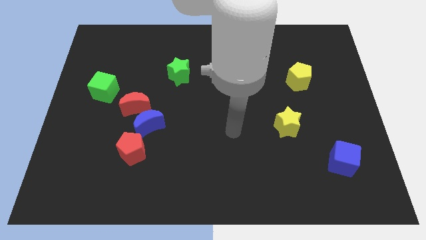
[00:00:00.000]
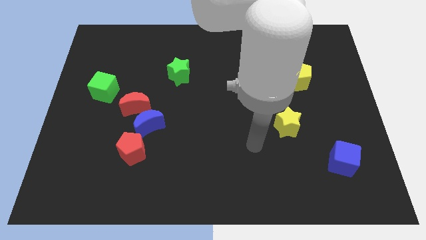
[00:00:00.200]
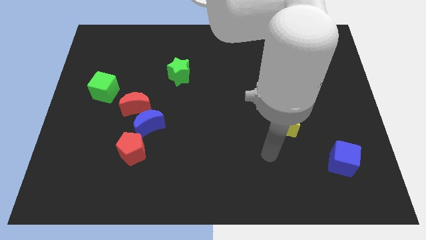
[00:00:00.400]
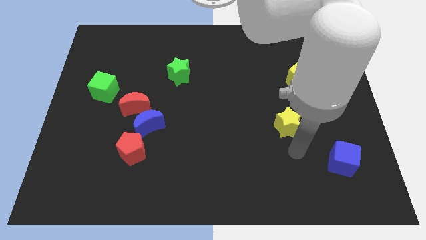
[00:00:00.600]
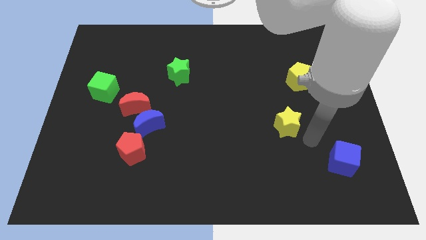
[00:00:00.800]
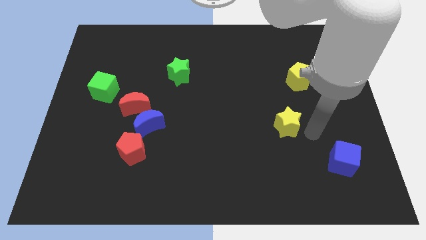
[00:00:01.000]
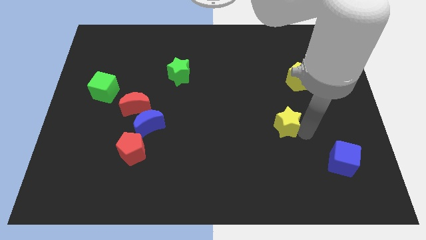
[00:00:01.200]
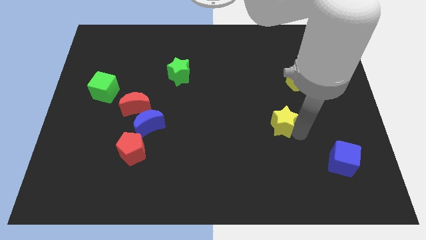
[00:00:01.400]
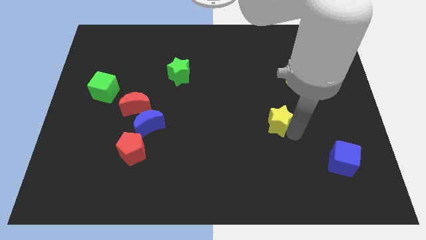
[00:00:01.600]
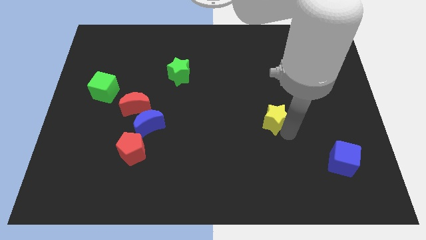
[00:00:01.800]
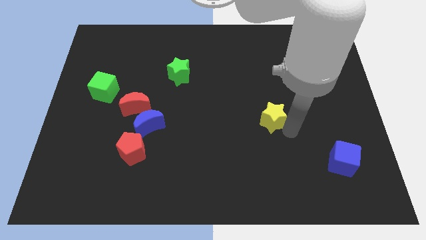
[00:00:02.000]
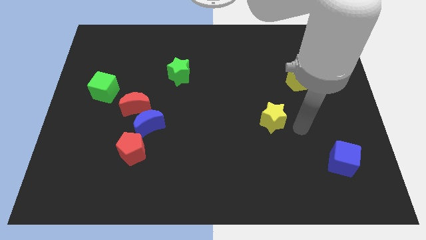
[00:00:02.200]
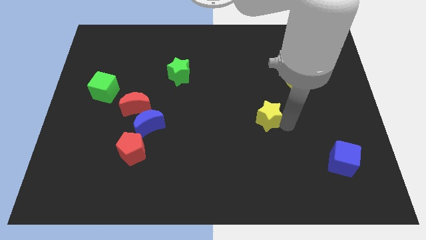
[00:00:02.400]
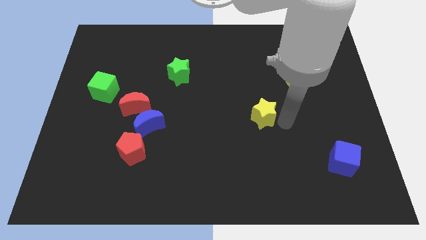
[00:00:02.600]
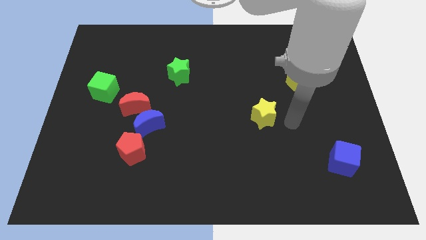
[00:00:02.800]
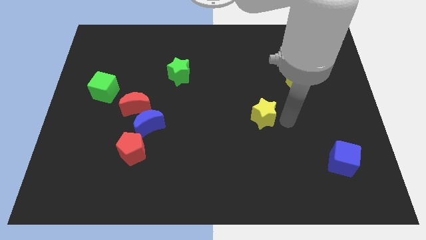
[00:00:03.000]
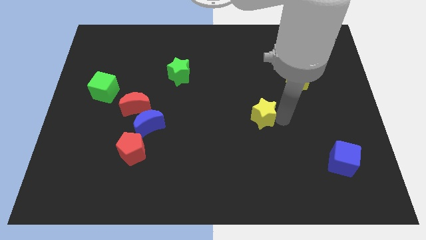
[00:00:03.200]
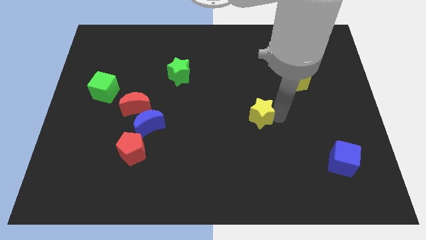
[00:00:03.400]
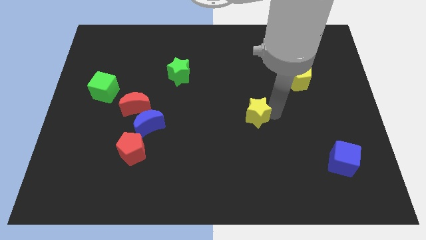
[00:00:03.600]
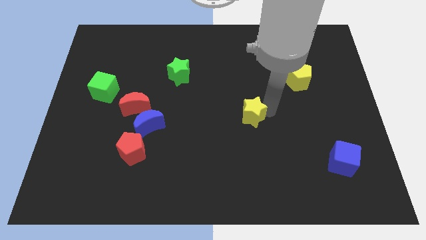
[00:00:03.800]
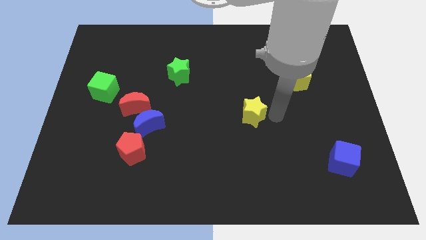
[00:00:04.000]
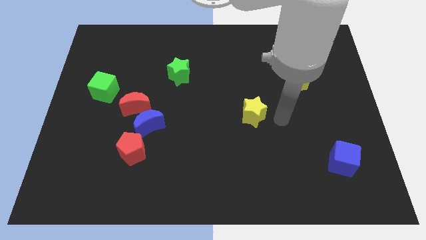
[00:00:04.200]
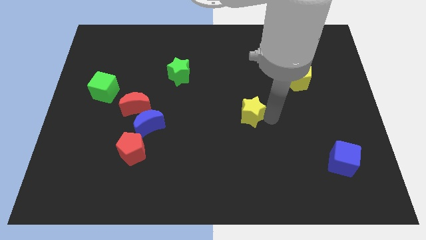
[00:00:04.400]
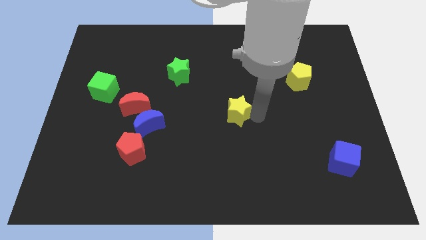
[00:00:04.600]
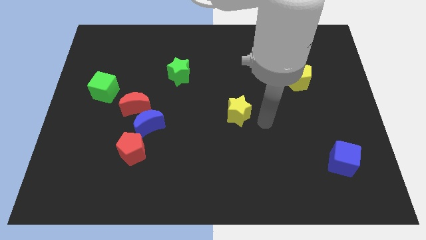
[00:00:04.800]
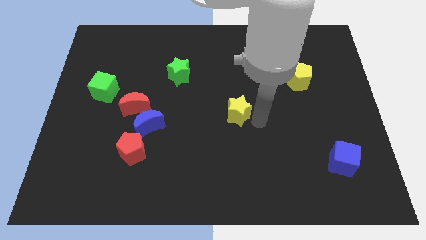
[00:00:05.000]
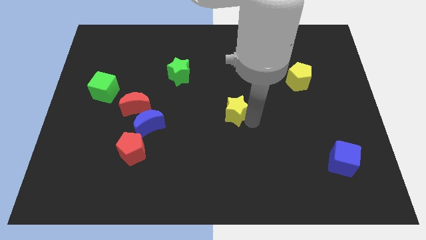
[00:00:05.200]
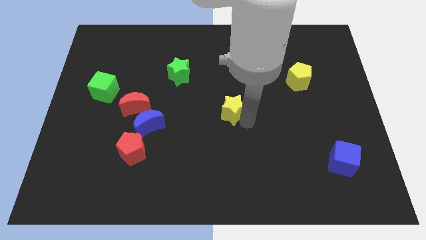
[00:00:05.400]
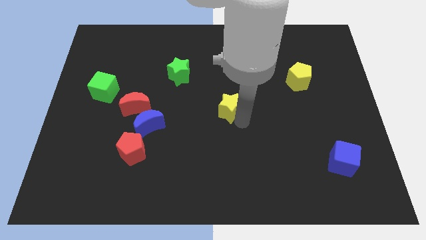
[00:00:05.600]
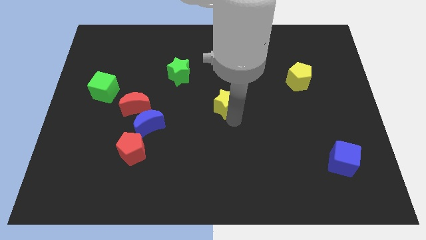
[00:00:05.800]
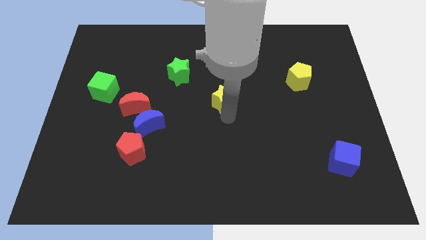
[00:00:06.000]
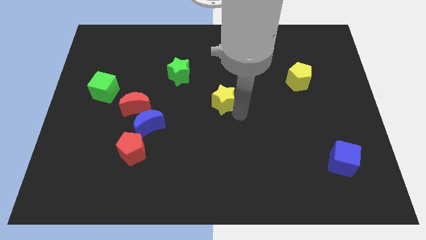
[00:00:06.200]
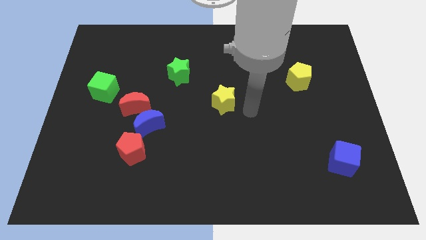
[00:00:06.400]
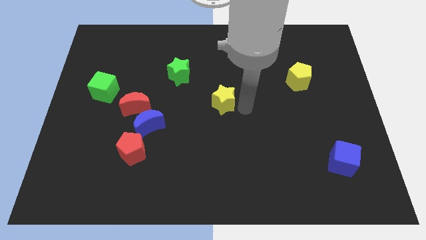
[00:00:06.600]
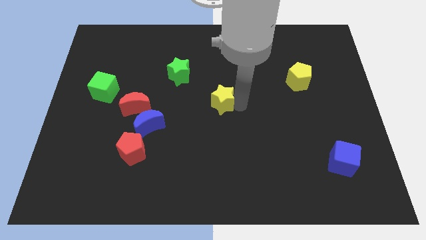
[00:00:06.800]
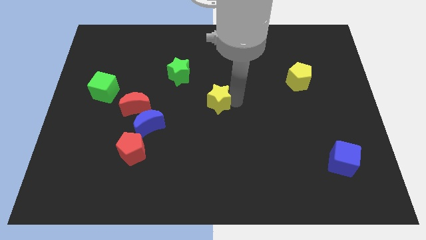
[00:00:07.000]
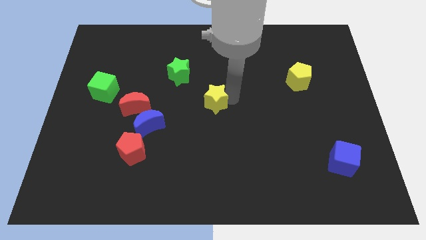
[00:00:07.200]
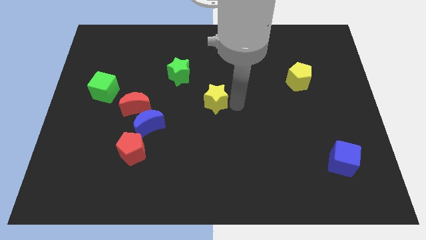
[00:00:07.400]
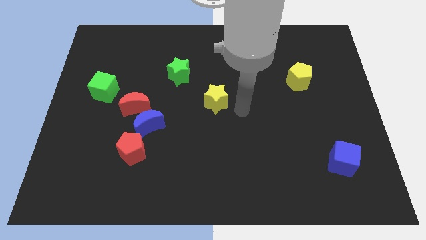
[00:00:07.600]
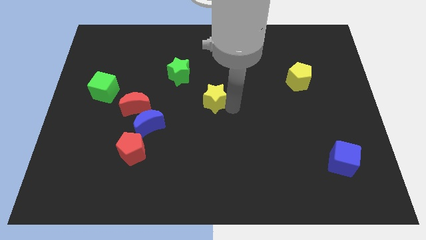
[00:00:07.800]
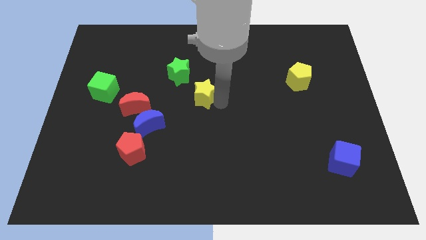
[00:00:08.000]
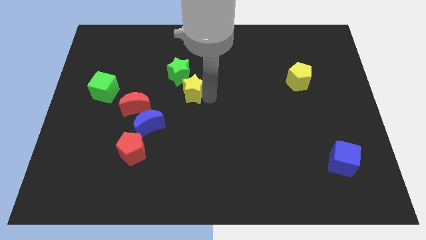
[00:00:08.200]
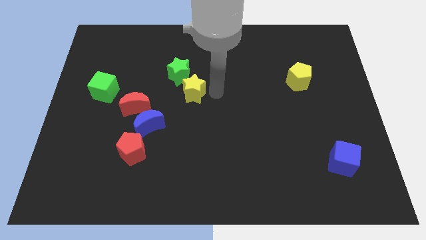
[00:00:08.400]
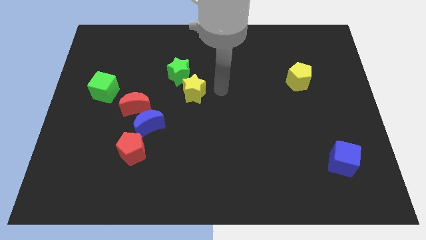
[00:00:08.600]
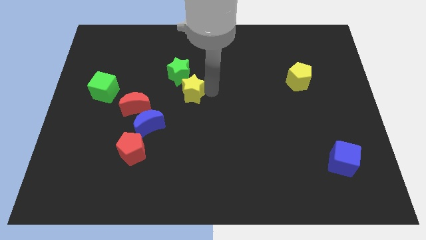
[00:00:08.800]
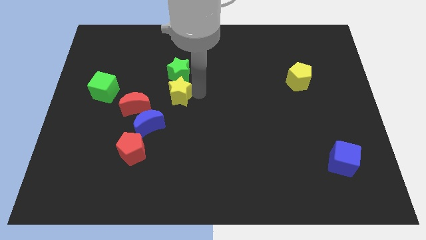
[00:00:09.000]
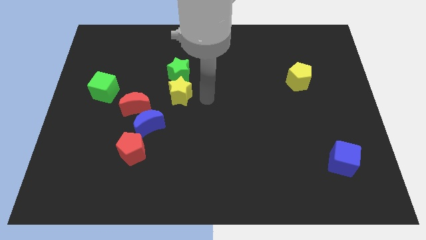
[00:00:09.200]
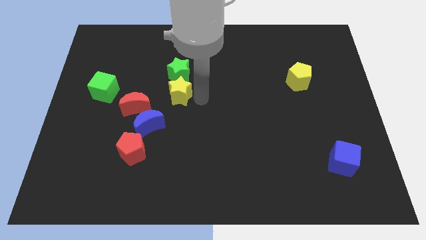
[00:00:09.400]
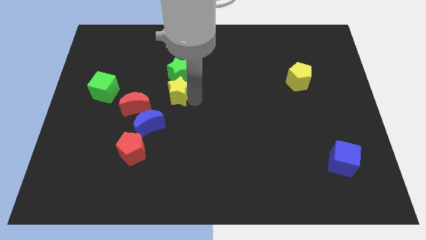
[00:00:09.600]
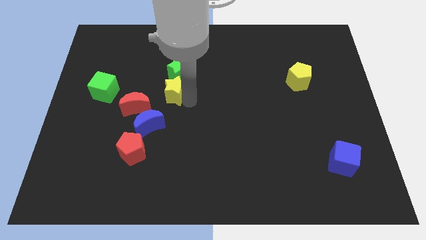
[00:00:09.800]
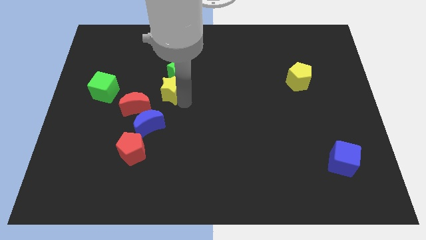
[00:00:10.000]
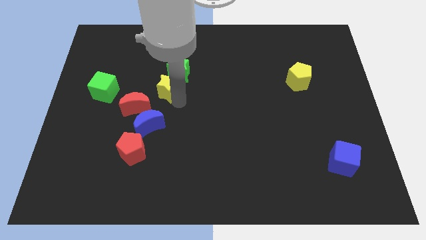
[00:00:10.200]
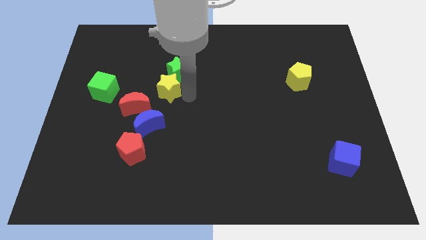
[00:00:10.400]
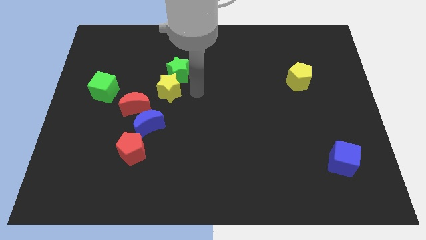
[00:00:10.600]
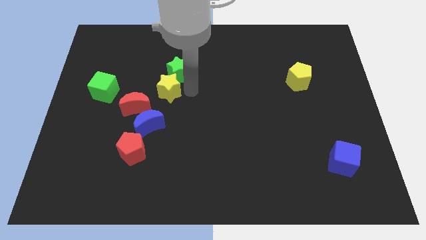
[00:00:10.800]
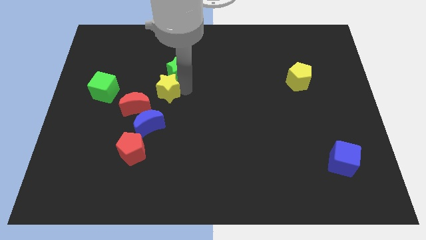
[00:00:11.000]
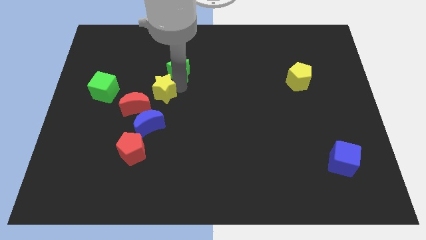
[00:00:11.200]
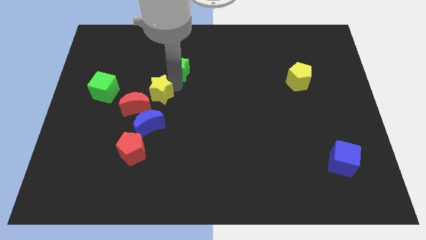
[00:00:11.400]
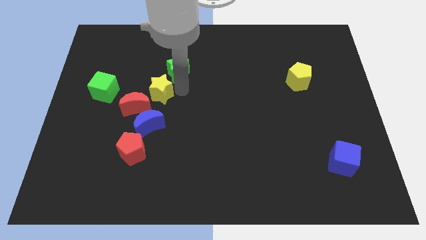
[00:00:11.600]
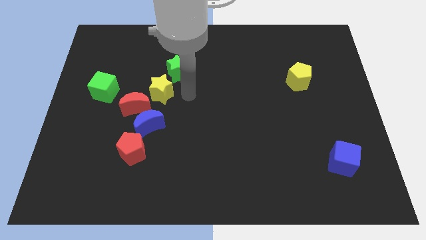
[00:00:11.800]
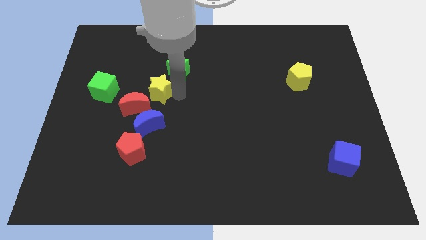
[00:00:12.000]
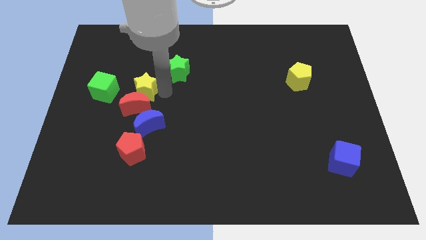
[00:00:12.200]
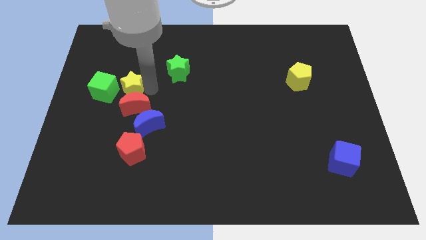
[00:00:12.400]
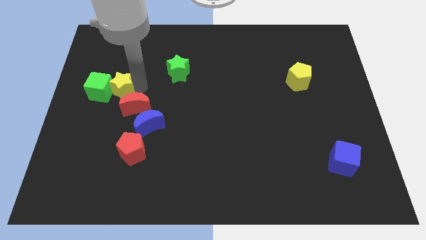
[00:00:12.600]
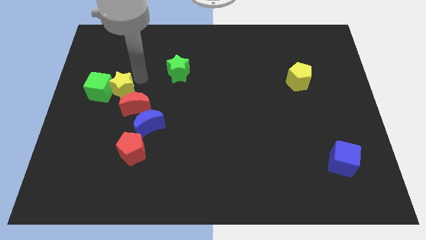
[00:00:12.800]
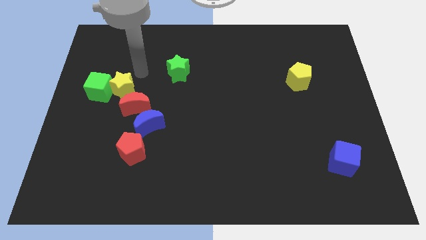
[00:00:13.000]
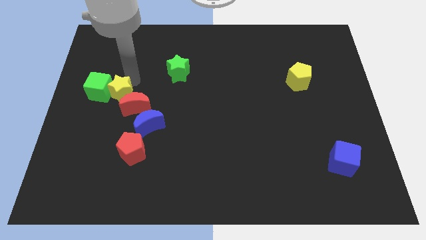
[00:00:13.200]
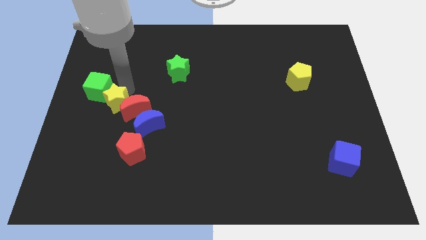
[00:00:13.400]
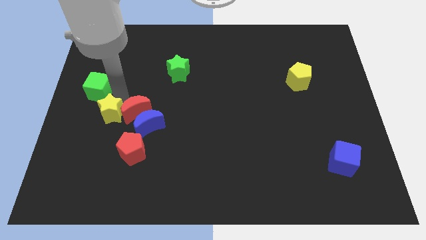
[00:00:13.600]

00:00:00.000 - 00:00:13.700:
slide the yellow star to the left side of the blue moon

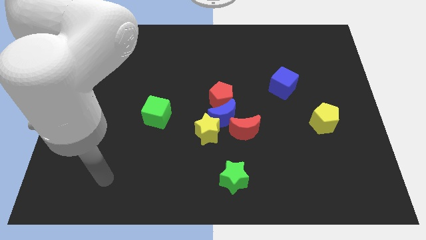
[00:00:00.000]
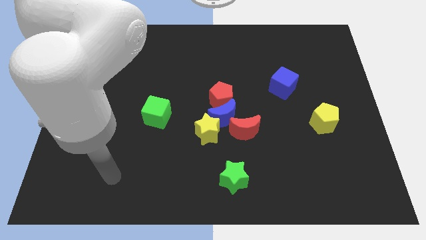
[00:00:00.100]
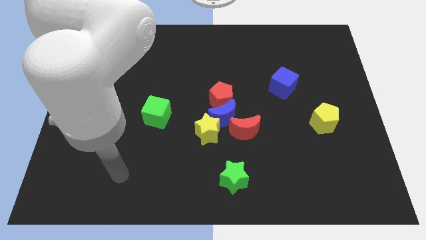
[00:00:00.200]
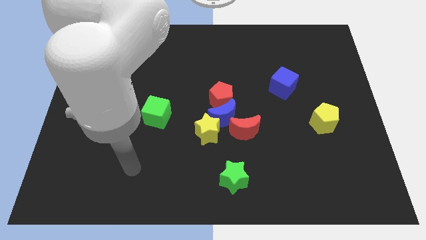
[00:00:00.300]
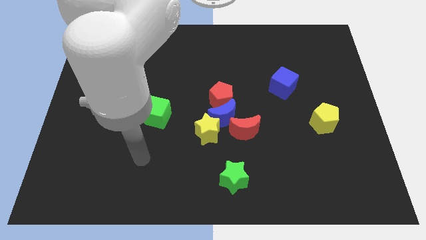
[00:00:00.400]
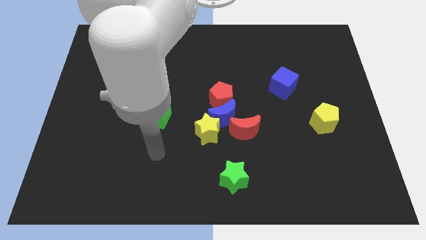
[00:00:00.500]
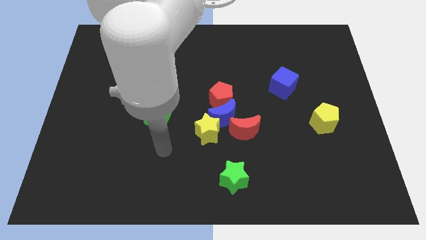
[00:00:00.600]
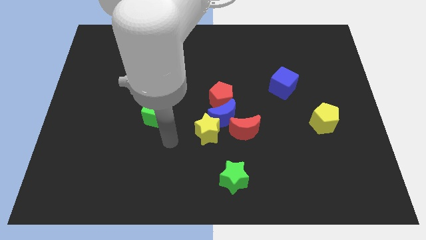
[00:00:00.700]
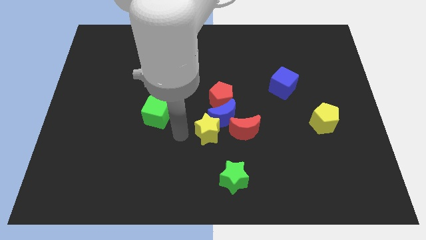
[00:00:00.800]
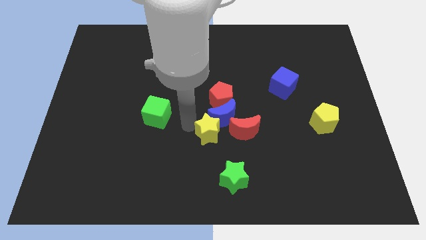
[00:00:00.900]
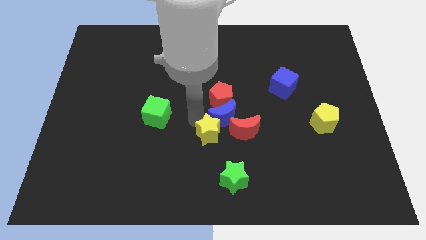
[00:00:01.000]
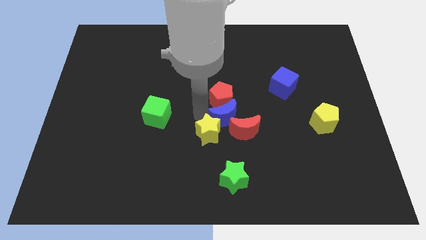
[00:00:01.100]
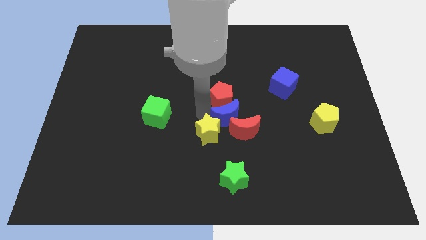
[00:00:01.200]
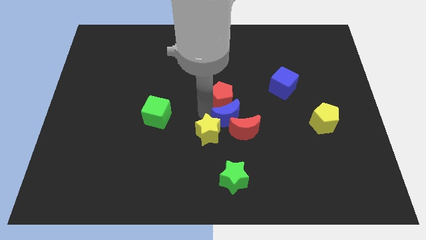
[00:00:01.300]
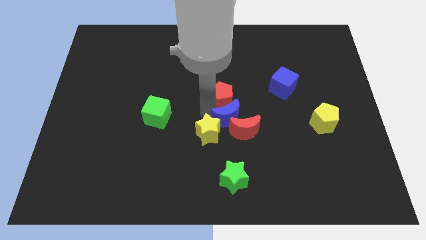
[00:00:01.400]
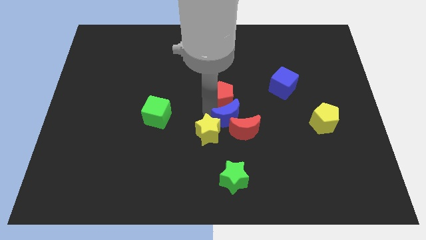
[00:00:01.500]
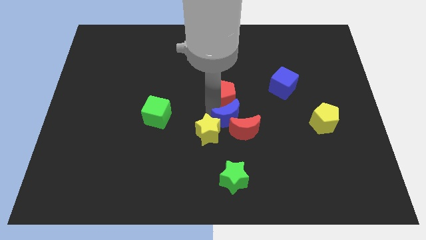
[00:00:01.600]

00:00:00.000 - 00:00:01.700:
slide the red pentagon to the left of the blue cube
